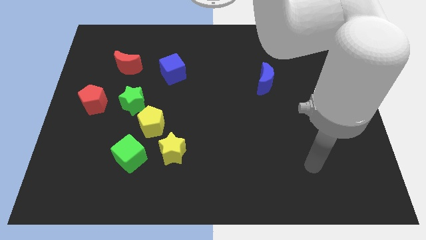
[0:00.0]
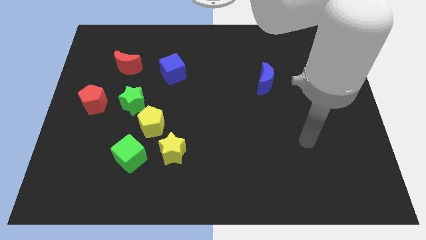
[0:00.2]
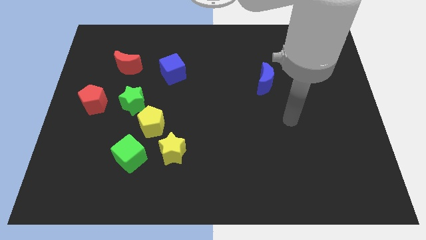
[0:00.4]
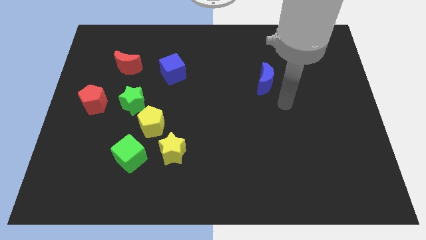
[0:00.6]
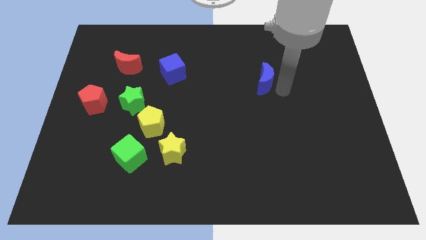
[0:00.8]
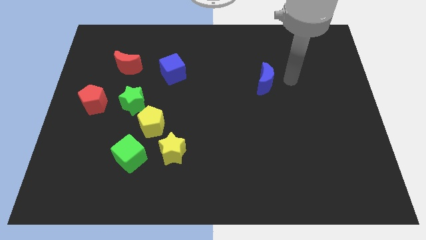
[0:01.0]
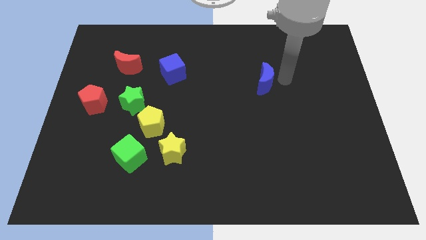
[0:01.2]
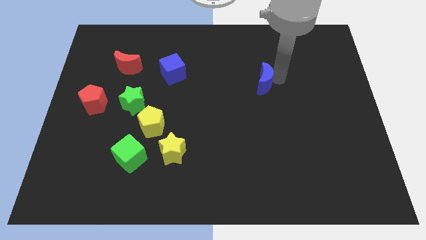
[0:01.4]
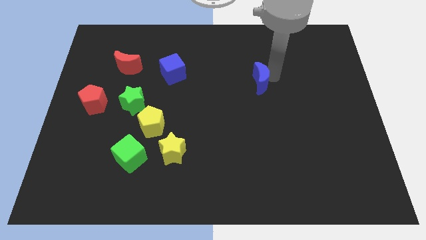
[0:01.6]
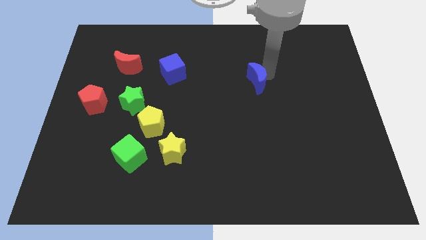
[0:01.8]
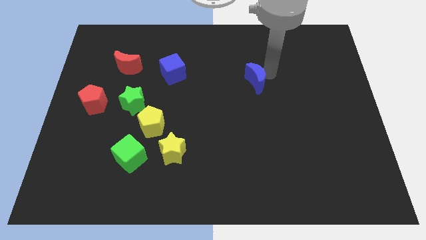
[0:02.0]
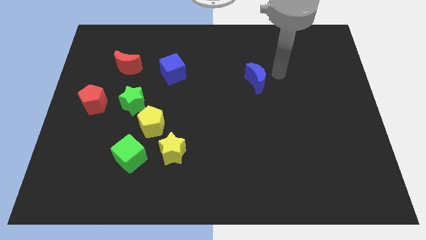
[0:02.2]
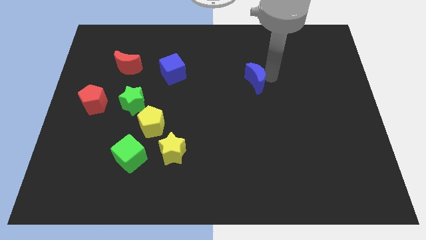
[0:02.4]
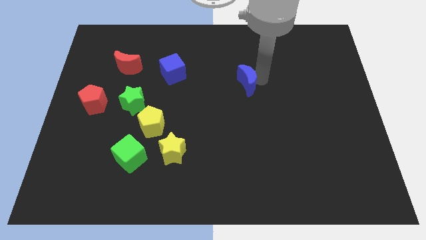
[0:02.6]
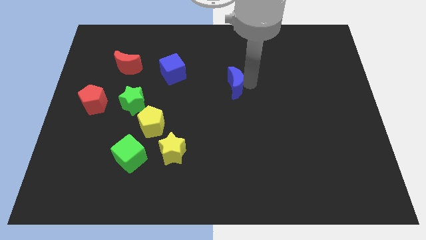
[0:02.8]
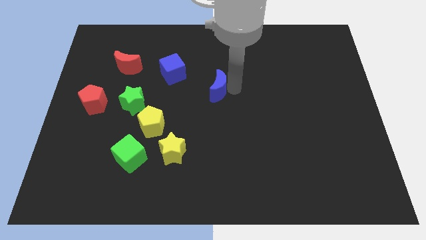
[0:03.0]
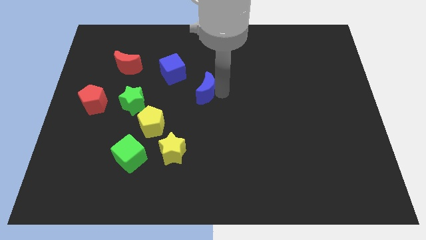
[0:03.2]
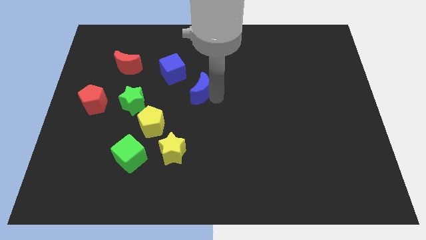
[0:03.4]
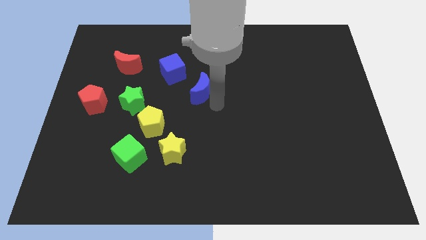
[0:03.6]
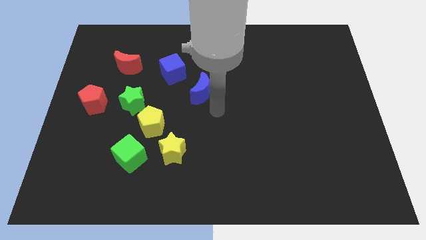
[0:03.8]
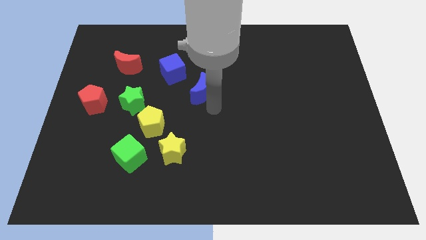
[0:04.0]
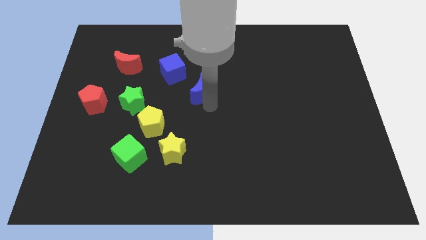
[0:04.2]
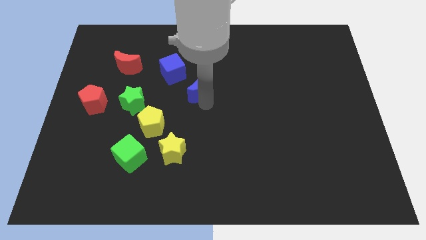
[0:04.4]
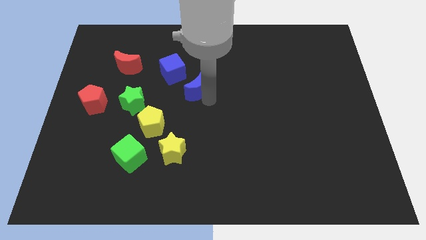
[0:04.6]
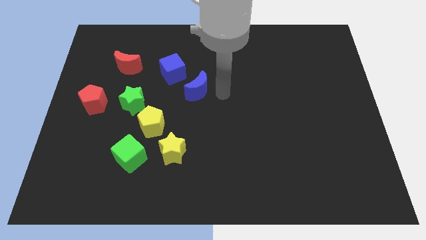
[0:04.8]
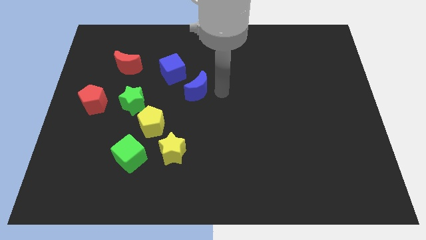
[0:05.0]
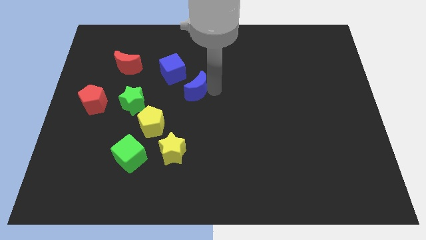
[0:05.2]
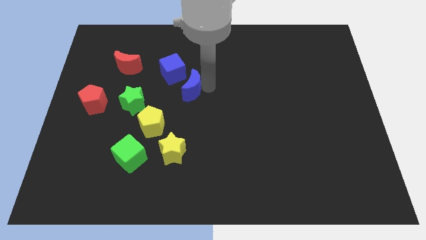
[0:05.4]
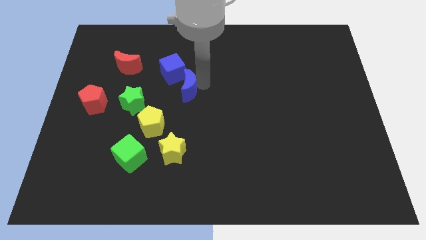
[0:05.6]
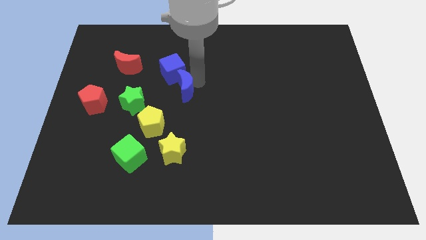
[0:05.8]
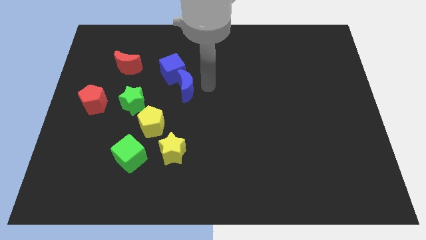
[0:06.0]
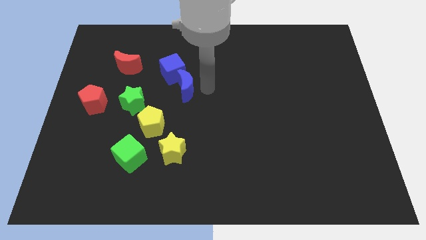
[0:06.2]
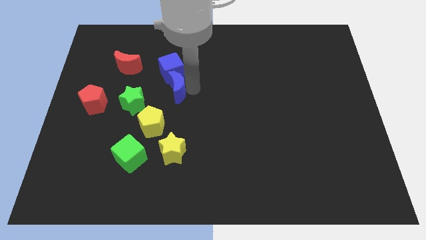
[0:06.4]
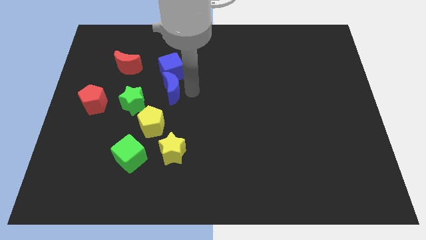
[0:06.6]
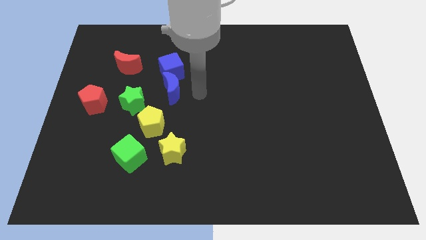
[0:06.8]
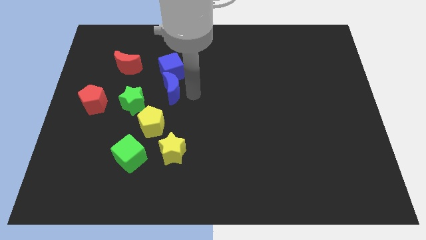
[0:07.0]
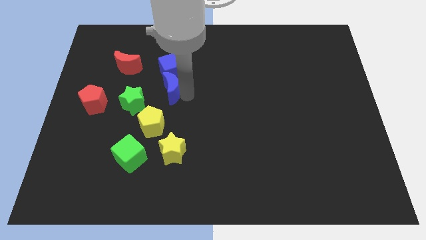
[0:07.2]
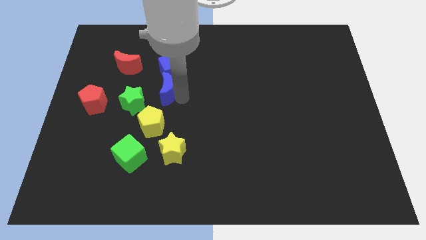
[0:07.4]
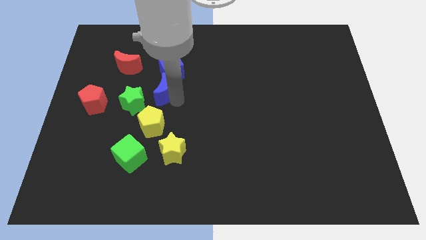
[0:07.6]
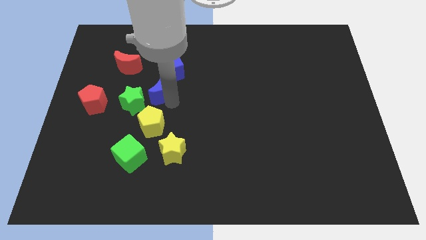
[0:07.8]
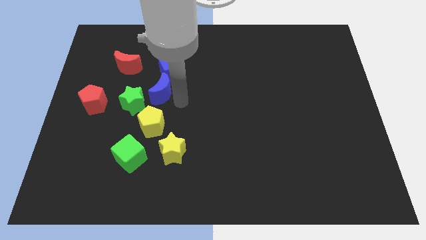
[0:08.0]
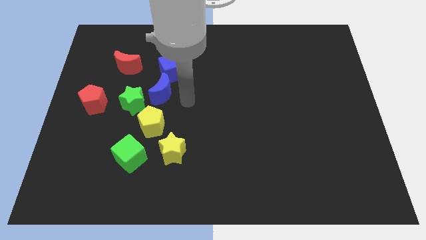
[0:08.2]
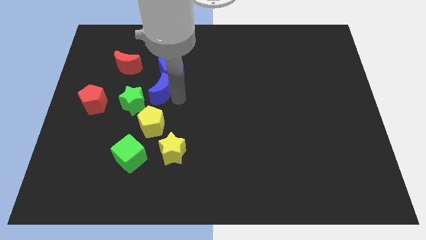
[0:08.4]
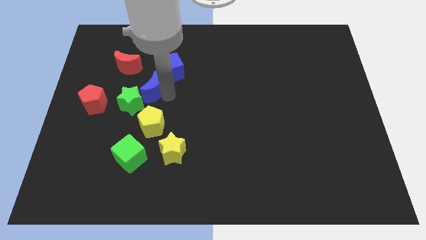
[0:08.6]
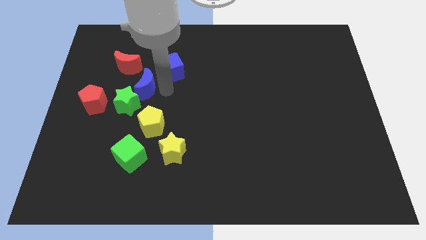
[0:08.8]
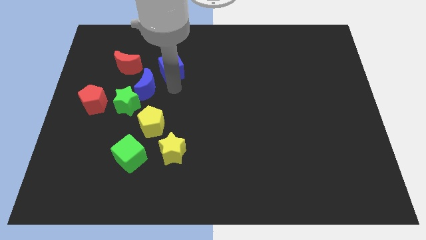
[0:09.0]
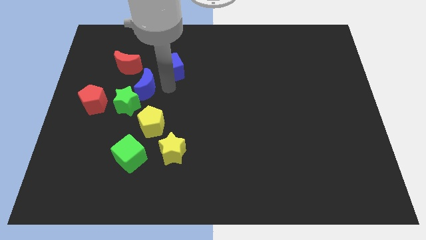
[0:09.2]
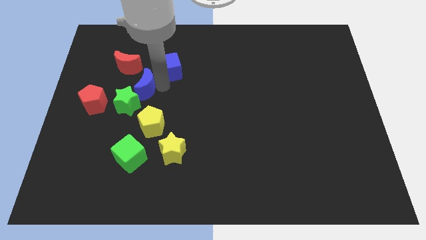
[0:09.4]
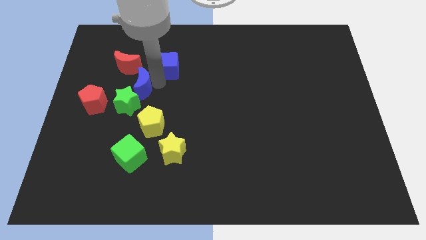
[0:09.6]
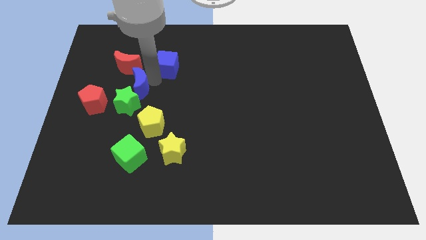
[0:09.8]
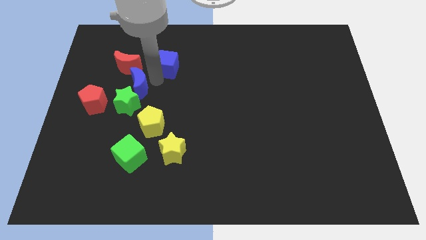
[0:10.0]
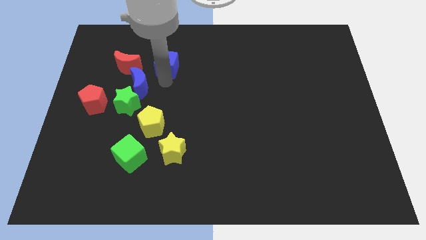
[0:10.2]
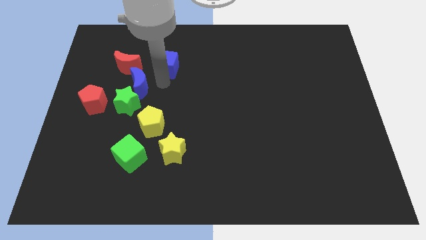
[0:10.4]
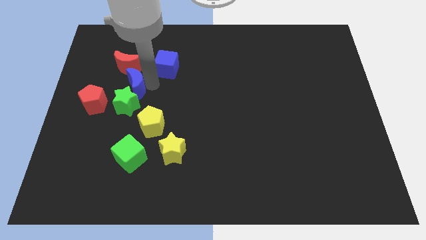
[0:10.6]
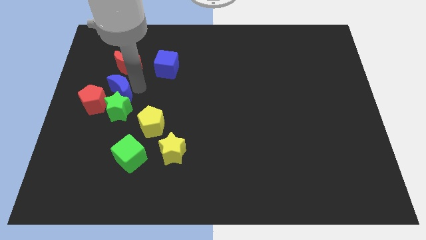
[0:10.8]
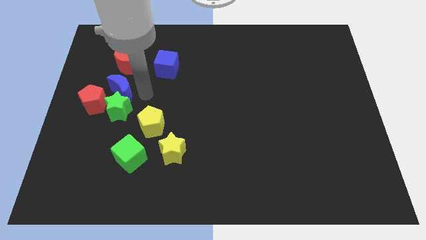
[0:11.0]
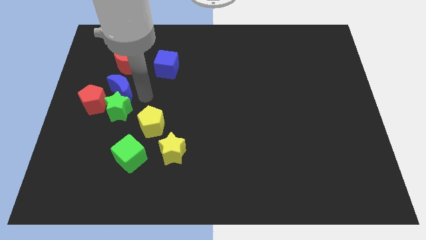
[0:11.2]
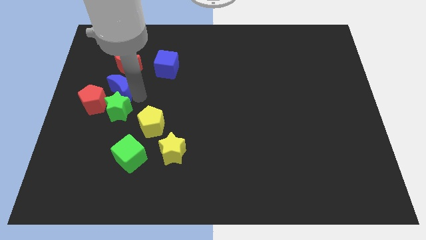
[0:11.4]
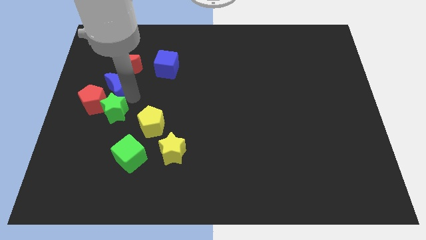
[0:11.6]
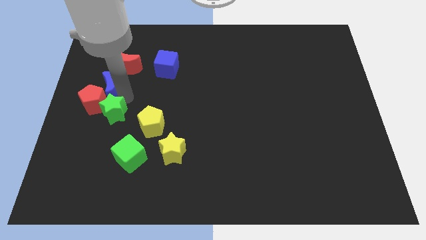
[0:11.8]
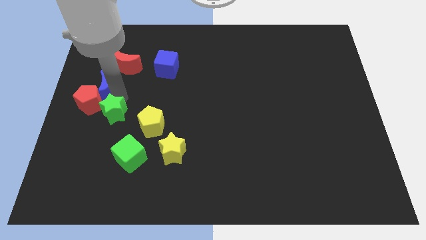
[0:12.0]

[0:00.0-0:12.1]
push the blue moon to the left side of the board

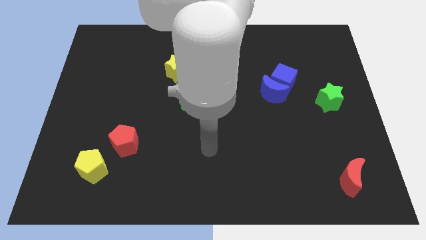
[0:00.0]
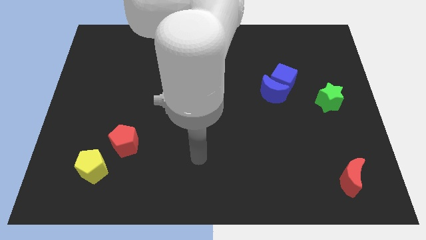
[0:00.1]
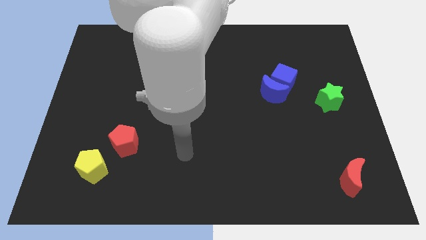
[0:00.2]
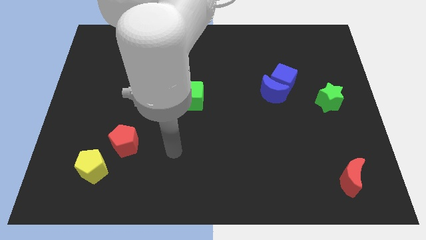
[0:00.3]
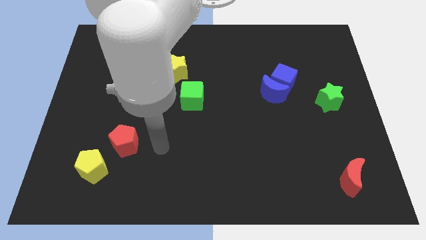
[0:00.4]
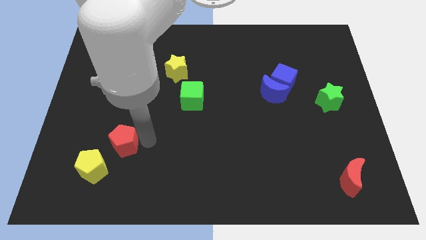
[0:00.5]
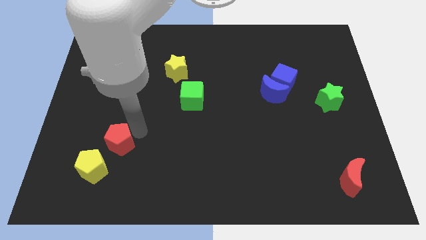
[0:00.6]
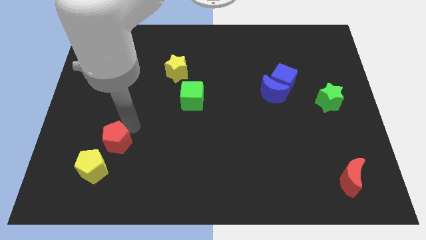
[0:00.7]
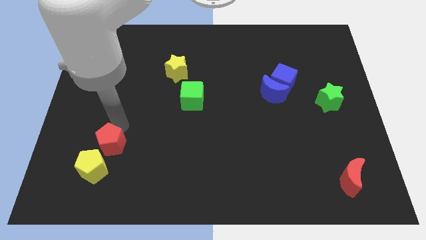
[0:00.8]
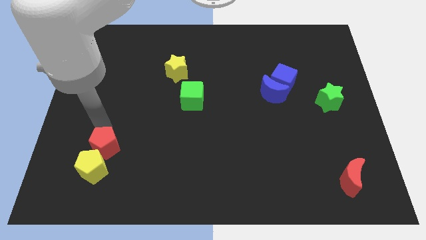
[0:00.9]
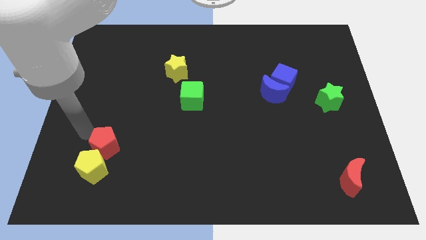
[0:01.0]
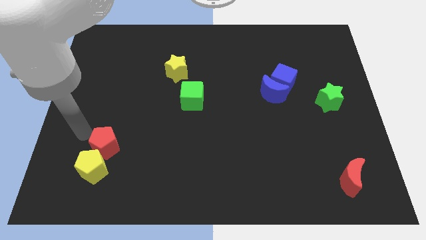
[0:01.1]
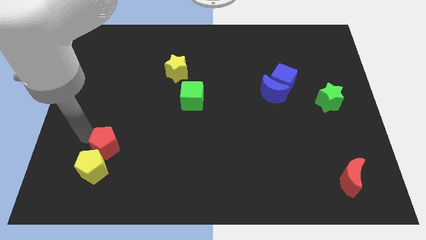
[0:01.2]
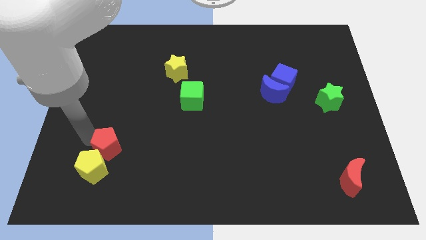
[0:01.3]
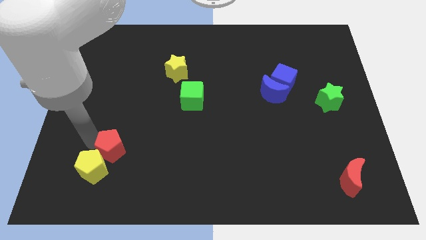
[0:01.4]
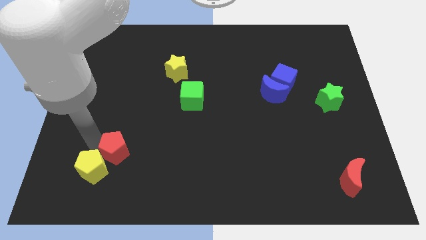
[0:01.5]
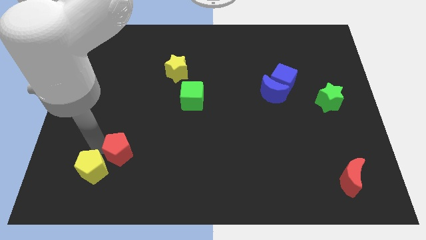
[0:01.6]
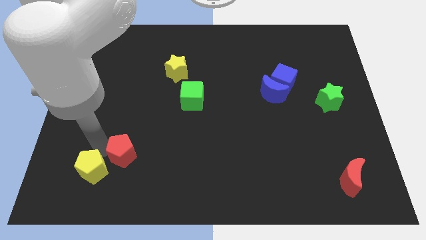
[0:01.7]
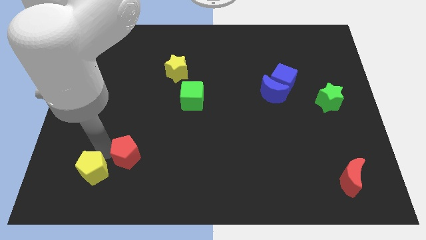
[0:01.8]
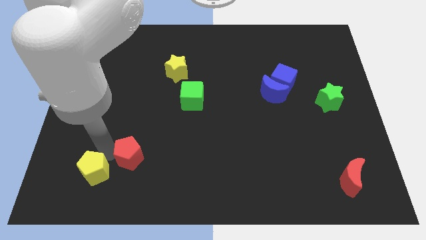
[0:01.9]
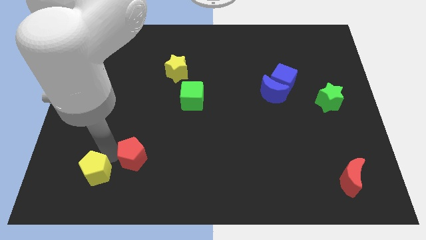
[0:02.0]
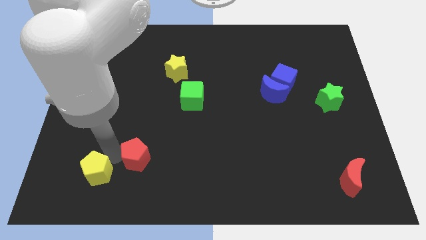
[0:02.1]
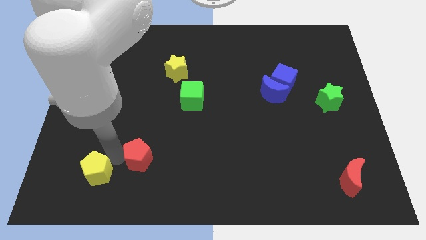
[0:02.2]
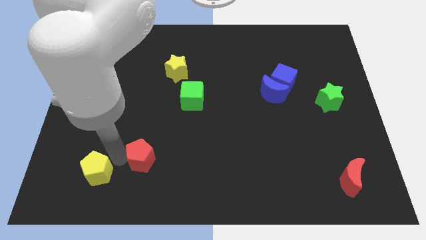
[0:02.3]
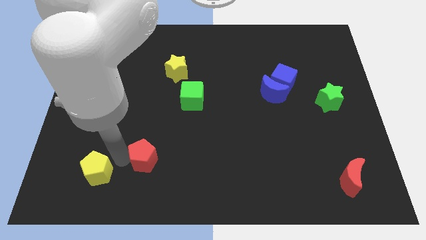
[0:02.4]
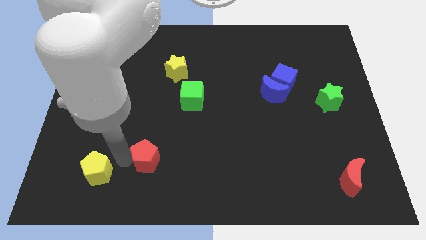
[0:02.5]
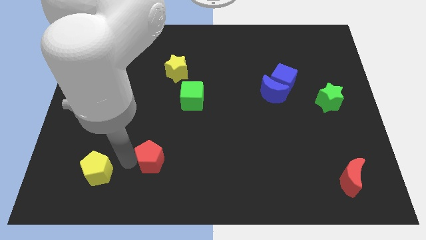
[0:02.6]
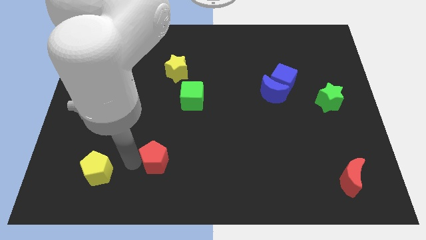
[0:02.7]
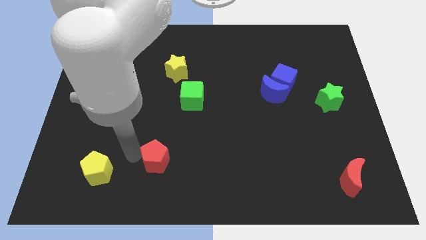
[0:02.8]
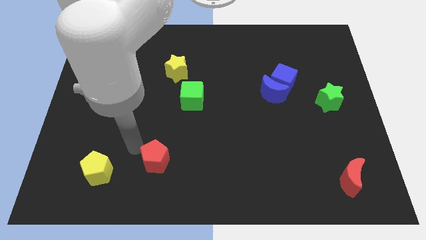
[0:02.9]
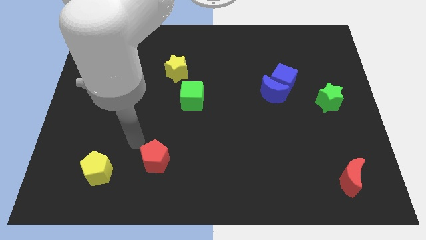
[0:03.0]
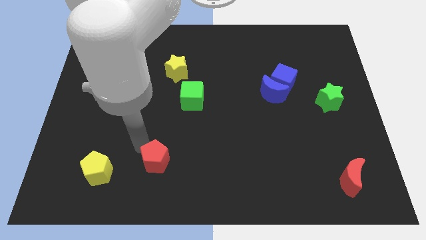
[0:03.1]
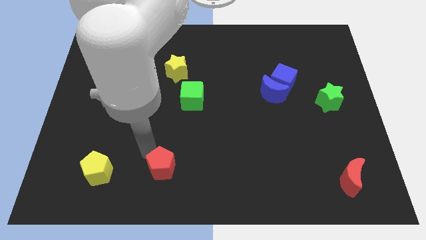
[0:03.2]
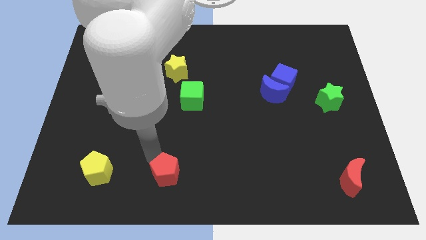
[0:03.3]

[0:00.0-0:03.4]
push the red pentagon to the bottom side
